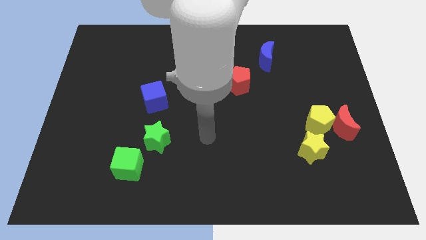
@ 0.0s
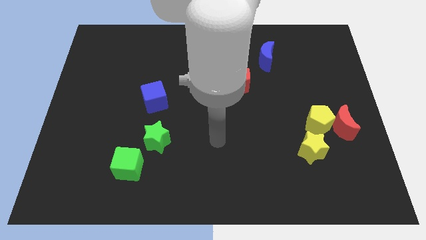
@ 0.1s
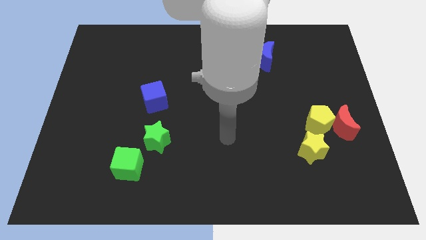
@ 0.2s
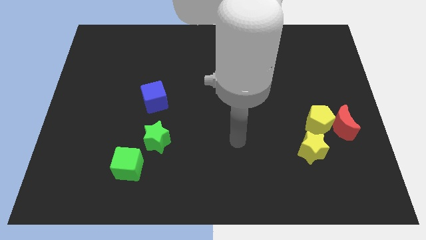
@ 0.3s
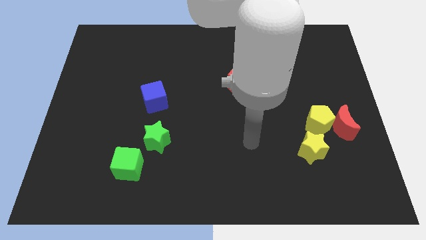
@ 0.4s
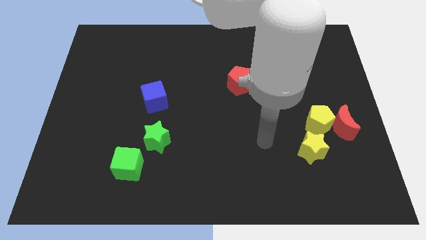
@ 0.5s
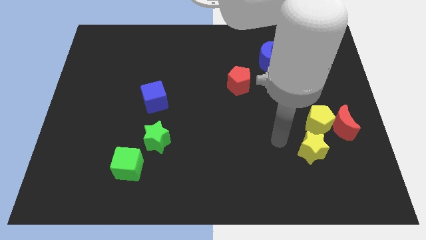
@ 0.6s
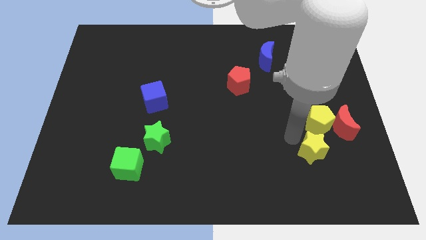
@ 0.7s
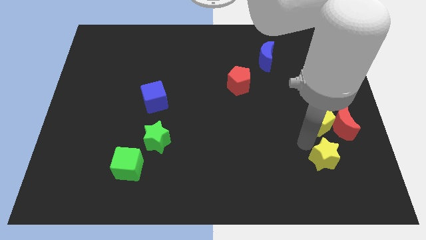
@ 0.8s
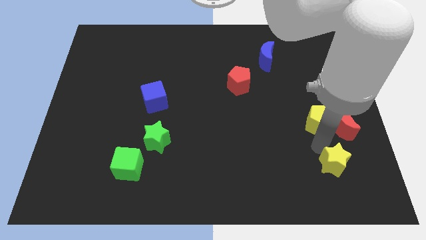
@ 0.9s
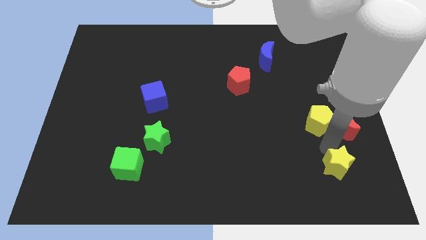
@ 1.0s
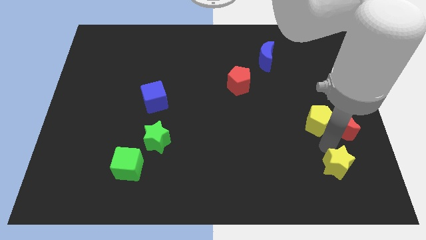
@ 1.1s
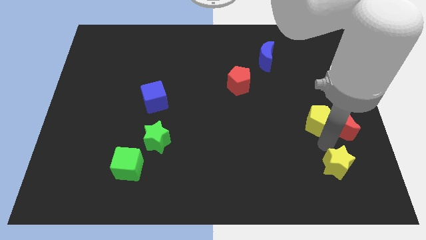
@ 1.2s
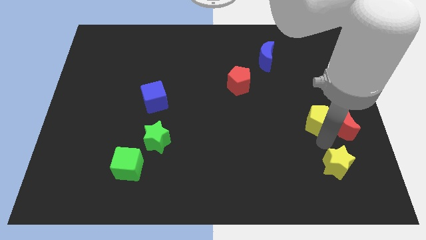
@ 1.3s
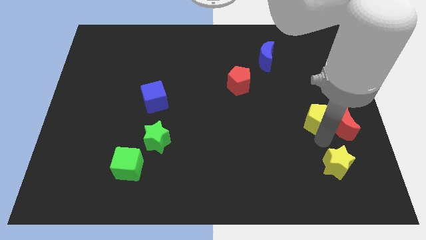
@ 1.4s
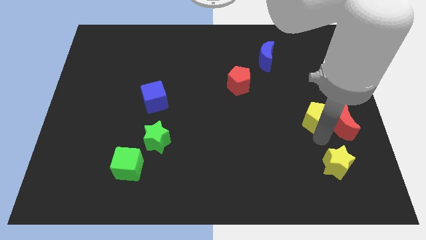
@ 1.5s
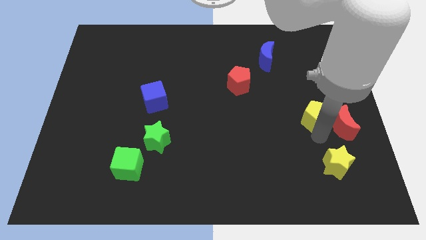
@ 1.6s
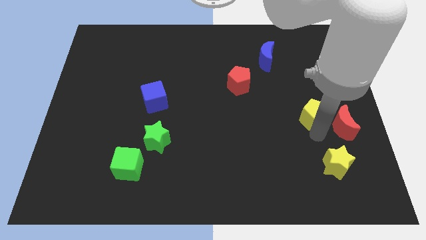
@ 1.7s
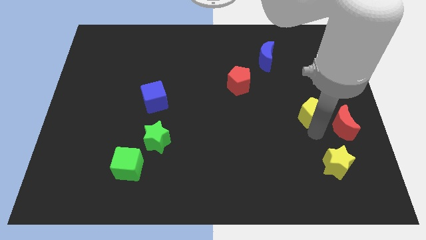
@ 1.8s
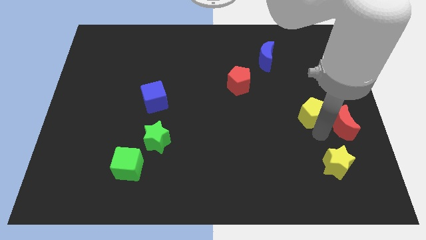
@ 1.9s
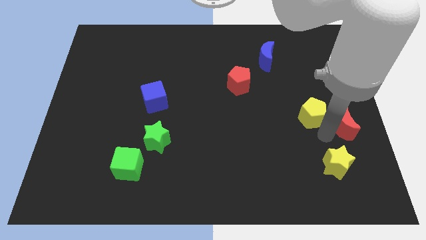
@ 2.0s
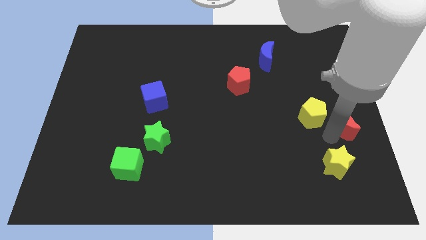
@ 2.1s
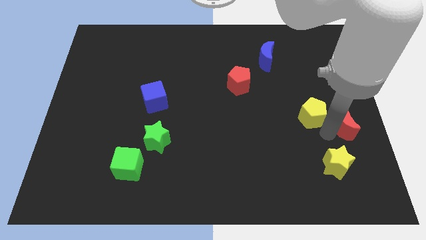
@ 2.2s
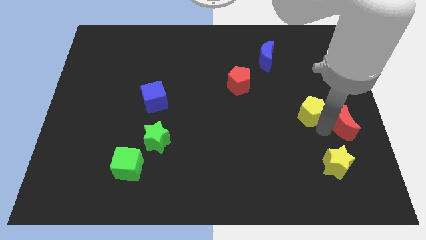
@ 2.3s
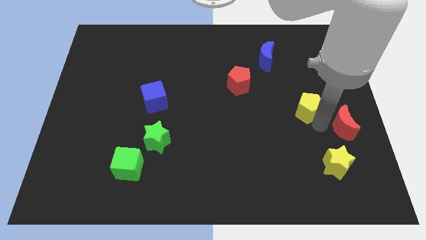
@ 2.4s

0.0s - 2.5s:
pull the yellow pentagon apart from the red moon and yellow star

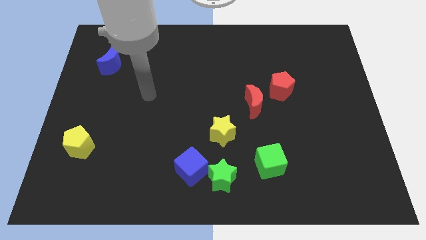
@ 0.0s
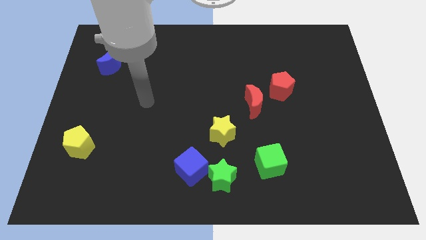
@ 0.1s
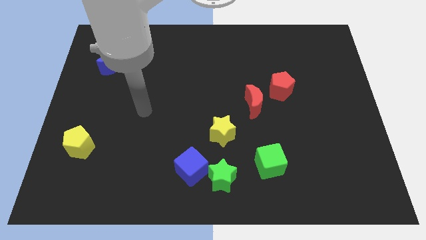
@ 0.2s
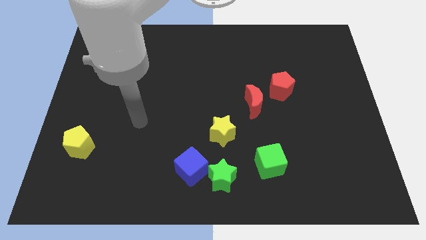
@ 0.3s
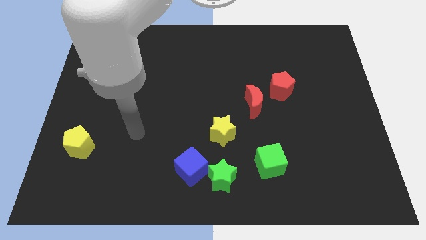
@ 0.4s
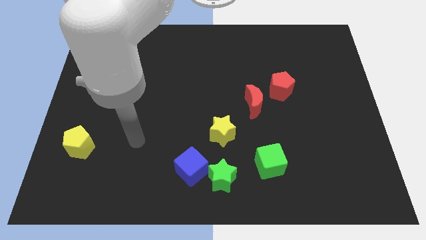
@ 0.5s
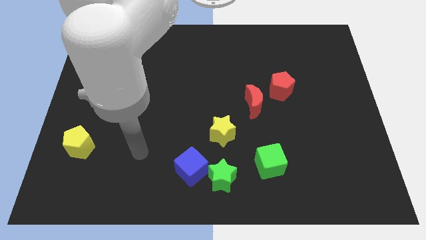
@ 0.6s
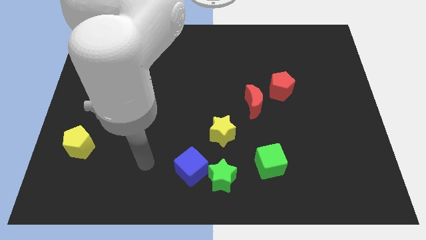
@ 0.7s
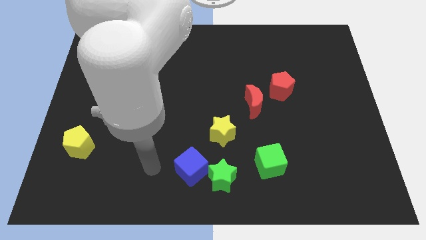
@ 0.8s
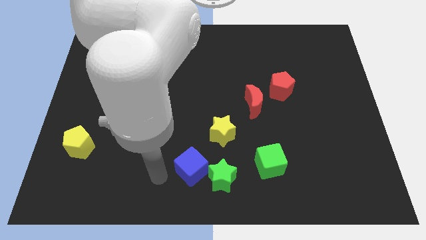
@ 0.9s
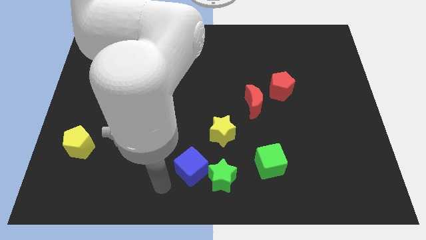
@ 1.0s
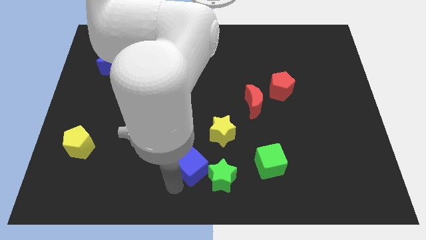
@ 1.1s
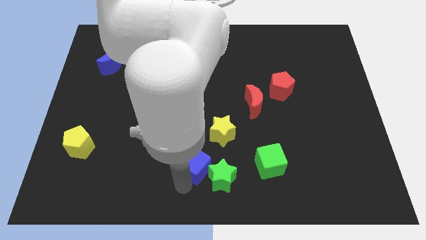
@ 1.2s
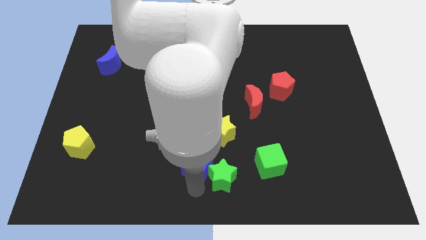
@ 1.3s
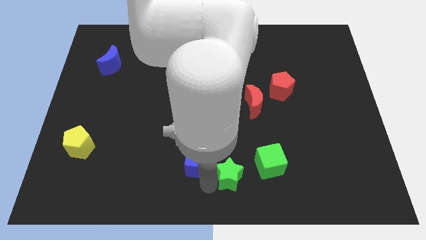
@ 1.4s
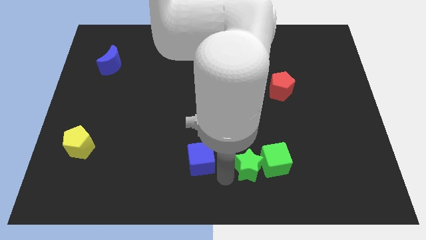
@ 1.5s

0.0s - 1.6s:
move the blue cube away from the green star

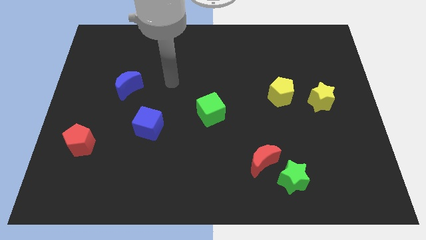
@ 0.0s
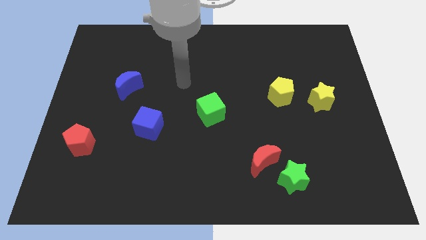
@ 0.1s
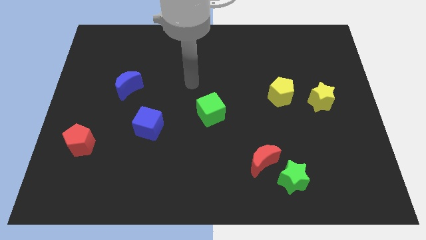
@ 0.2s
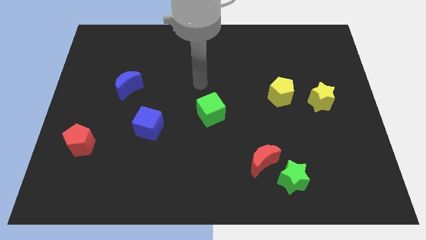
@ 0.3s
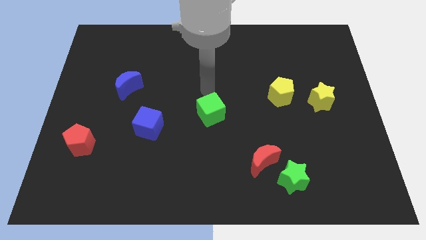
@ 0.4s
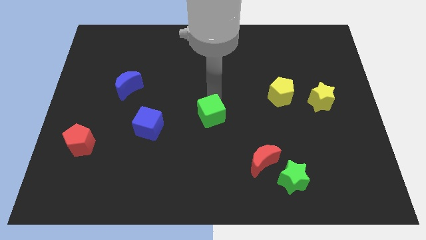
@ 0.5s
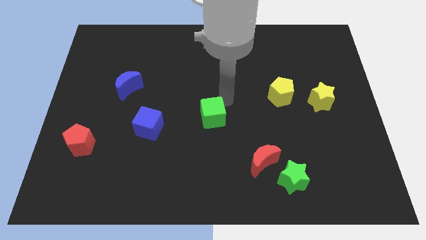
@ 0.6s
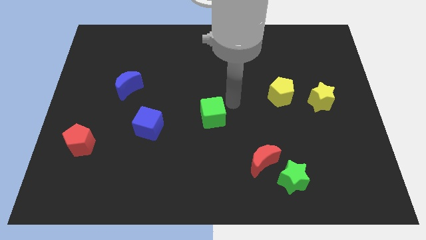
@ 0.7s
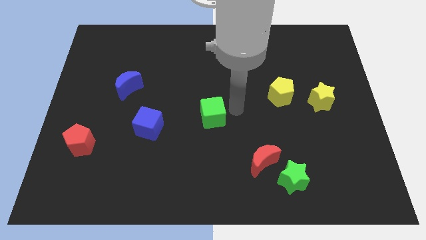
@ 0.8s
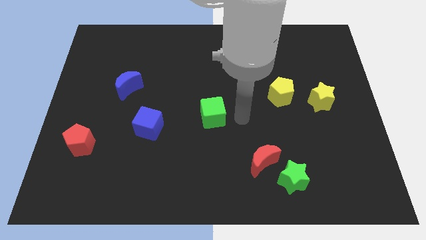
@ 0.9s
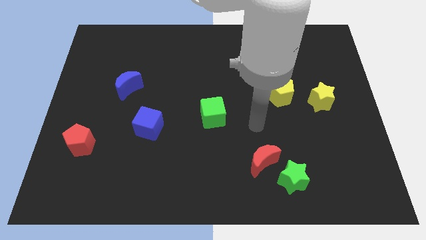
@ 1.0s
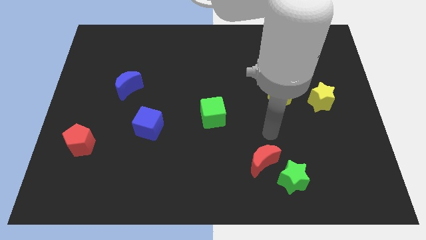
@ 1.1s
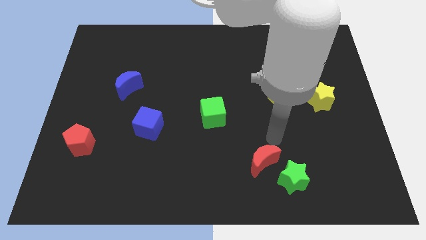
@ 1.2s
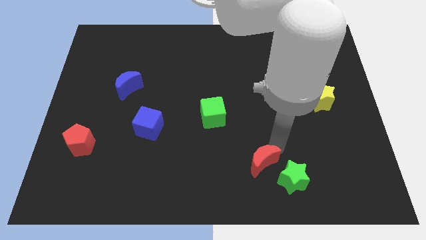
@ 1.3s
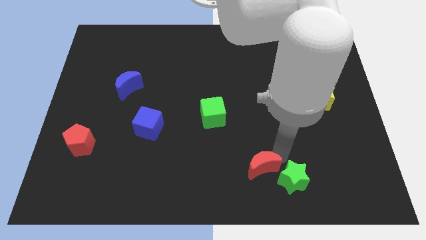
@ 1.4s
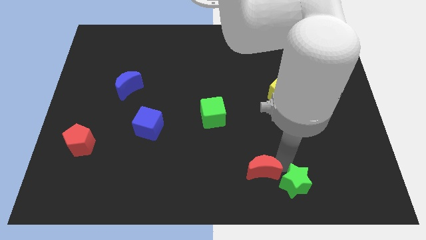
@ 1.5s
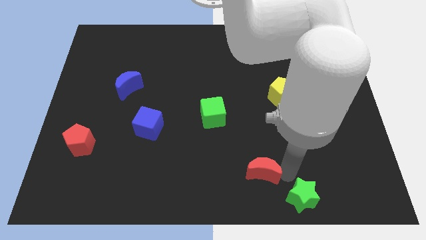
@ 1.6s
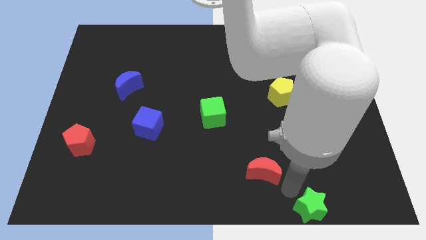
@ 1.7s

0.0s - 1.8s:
pull the red moon apart from the green star

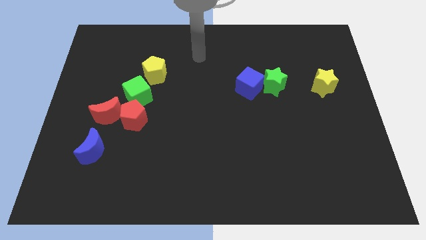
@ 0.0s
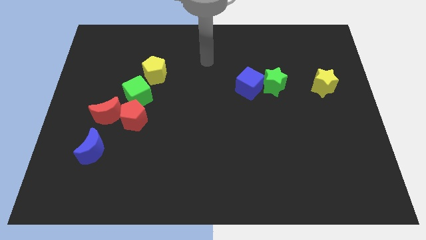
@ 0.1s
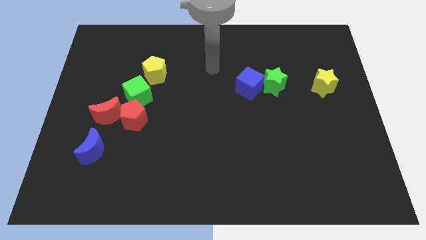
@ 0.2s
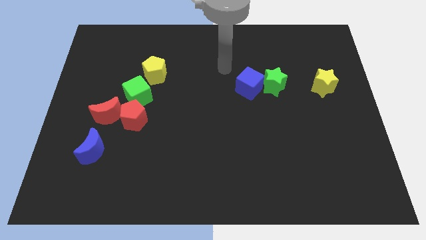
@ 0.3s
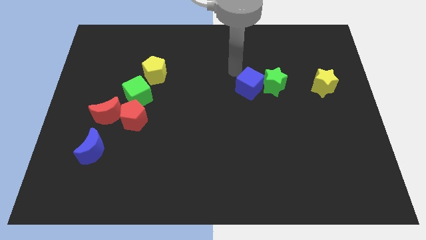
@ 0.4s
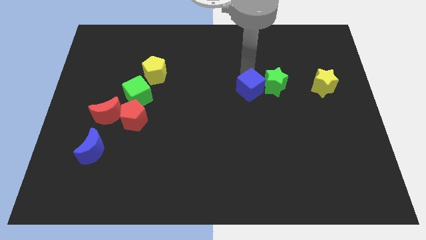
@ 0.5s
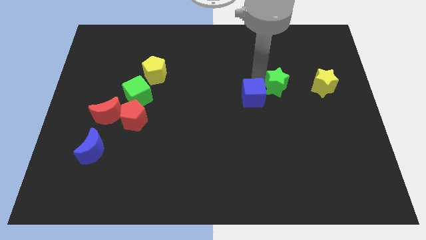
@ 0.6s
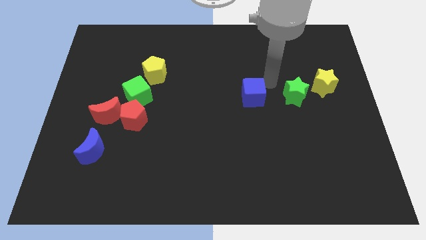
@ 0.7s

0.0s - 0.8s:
pull the blue cube apart from the green star

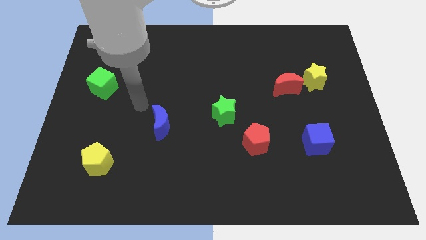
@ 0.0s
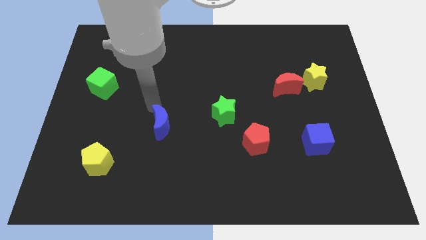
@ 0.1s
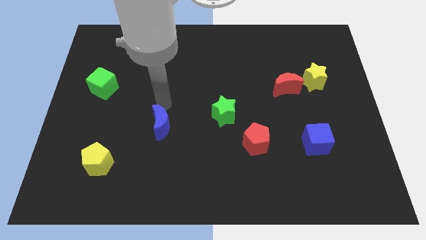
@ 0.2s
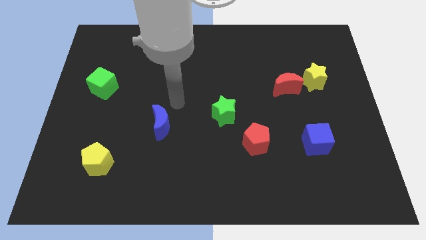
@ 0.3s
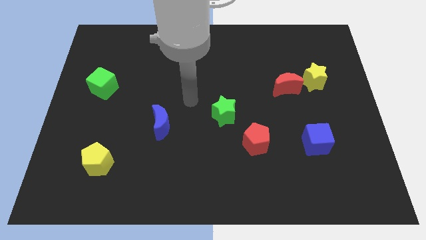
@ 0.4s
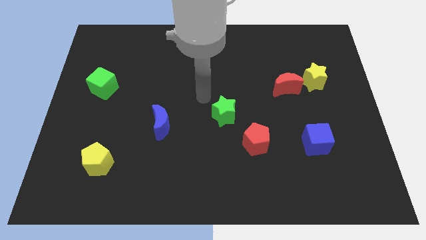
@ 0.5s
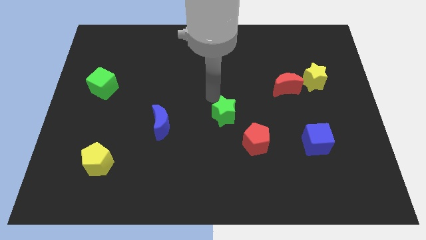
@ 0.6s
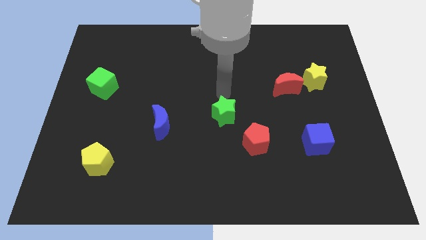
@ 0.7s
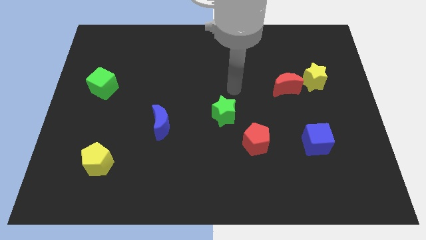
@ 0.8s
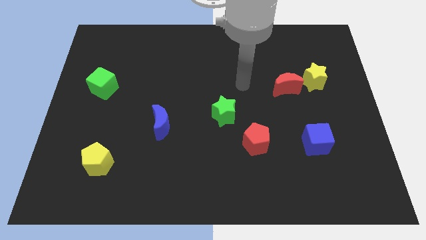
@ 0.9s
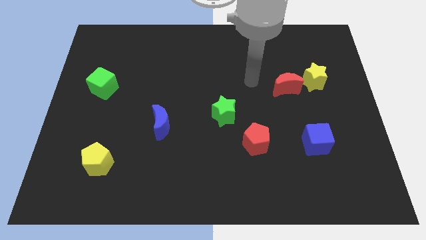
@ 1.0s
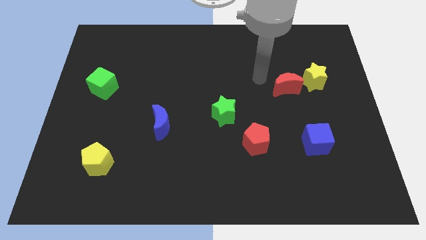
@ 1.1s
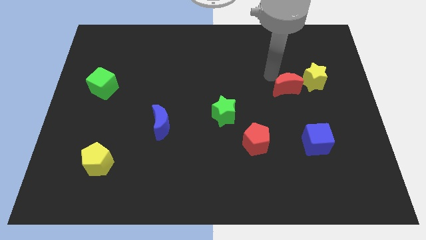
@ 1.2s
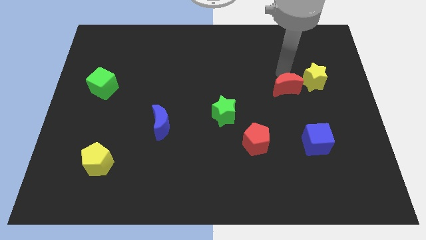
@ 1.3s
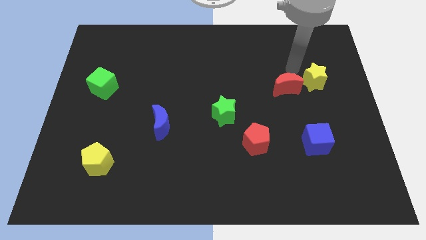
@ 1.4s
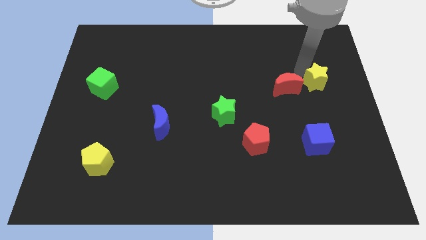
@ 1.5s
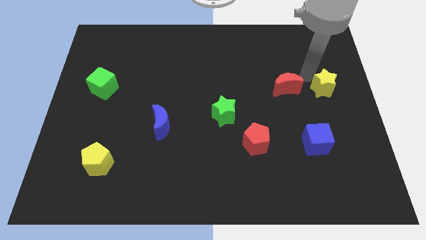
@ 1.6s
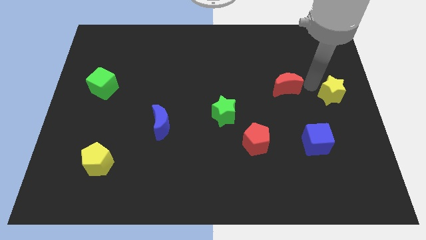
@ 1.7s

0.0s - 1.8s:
move the red moon away from the yellow star

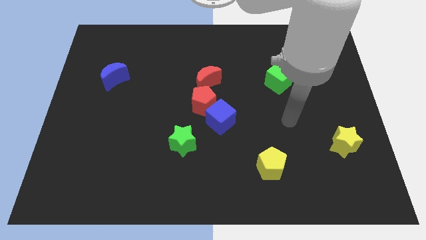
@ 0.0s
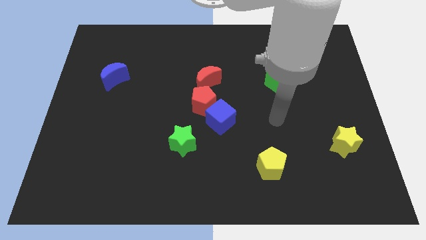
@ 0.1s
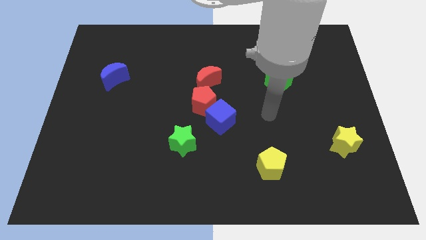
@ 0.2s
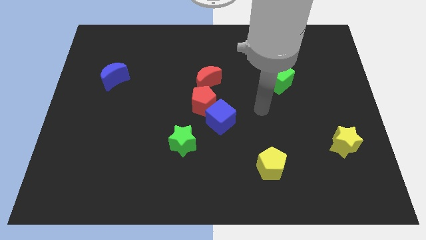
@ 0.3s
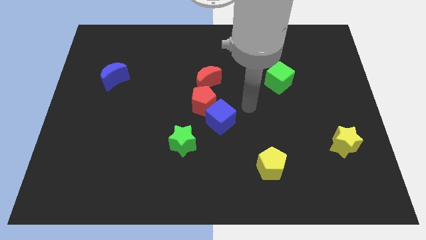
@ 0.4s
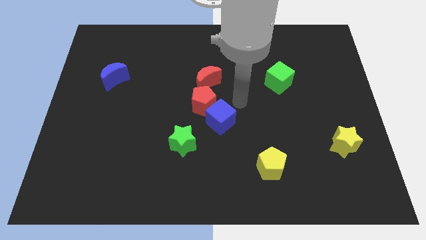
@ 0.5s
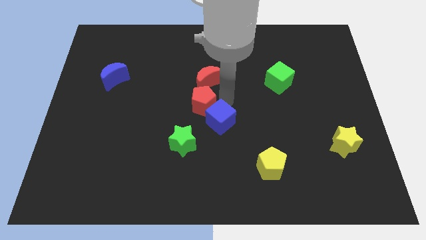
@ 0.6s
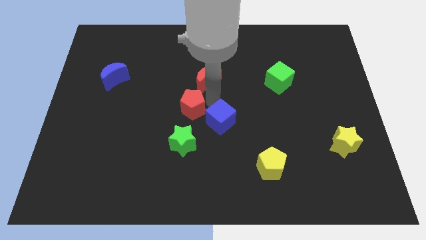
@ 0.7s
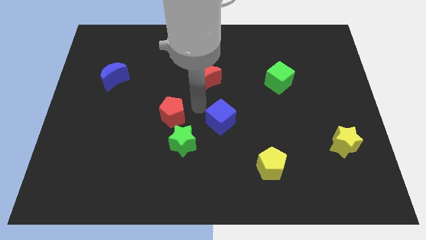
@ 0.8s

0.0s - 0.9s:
move the blue cube away from the red pentagon
